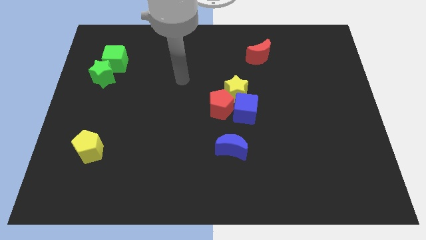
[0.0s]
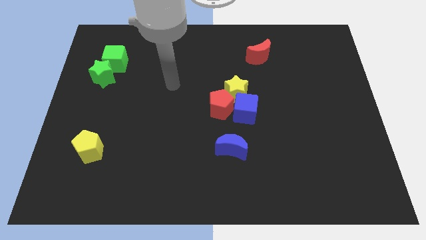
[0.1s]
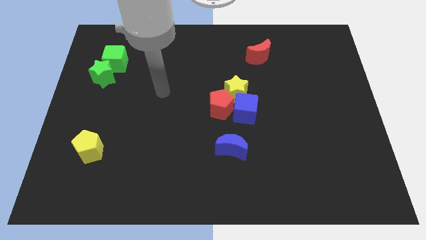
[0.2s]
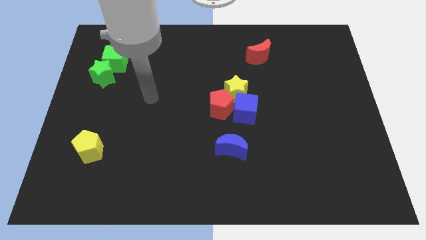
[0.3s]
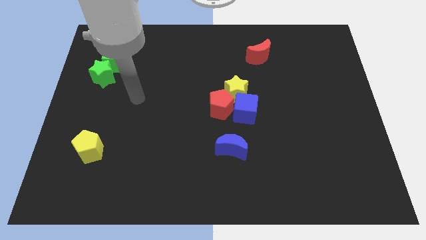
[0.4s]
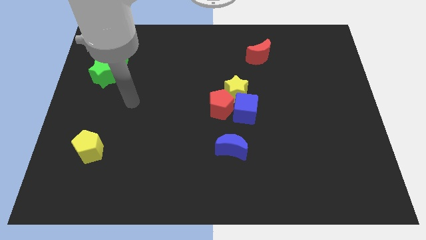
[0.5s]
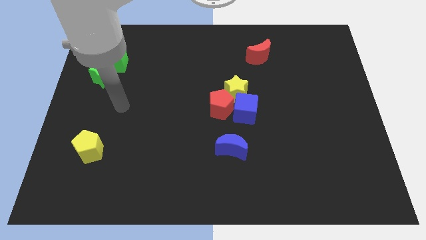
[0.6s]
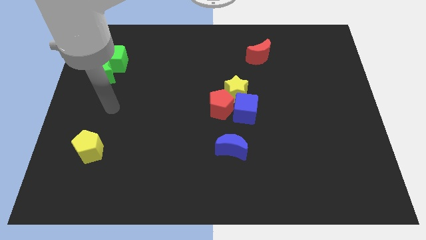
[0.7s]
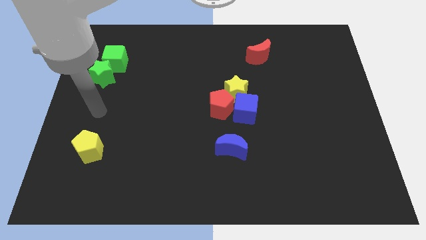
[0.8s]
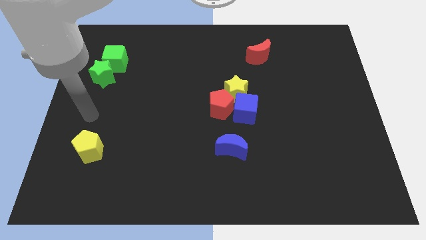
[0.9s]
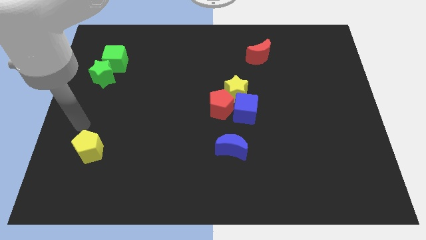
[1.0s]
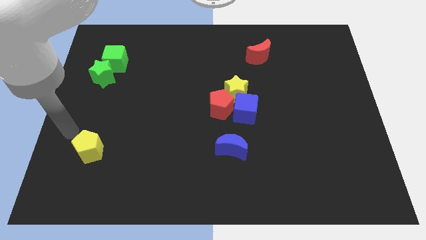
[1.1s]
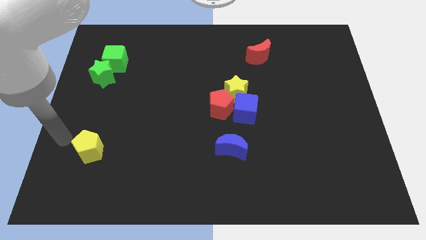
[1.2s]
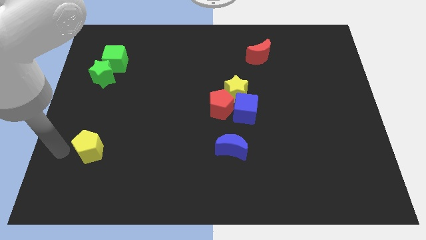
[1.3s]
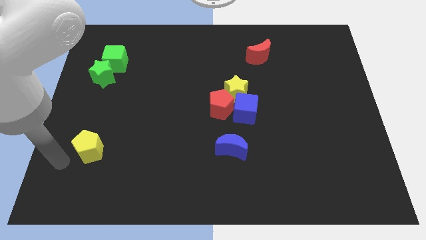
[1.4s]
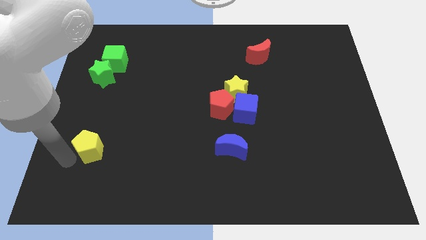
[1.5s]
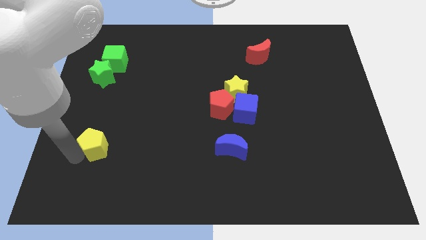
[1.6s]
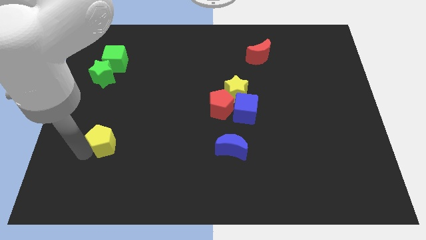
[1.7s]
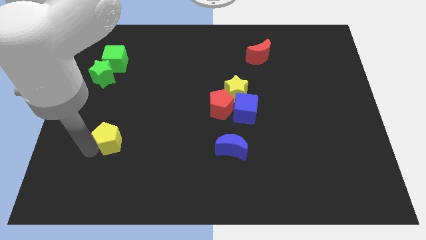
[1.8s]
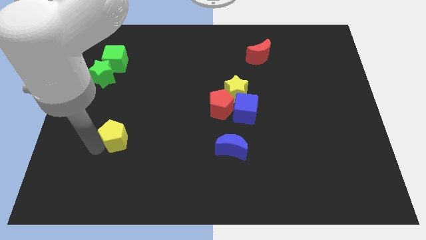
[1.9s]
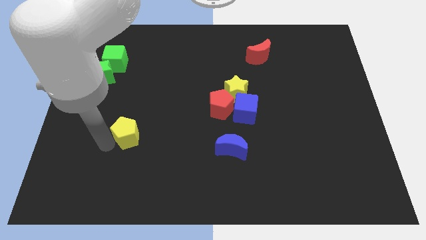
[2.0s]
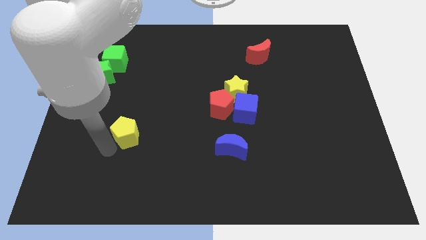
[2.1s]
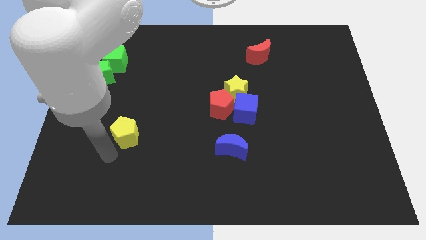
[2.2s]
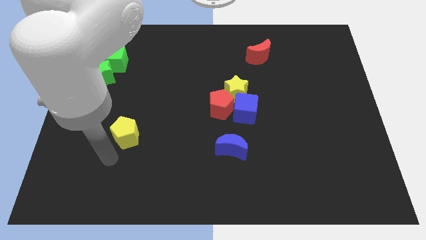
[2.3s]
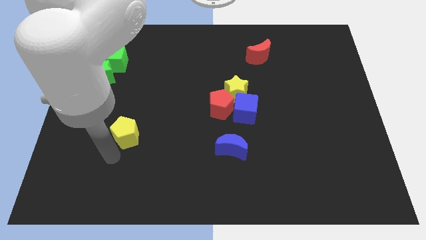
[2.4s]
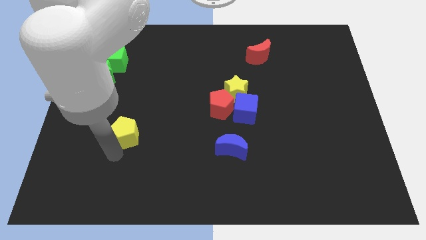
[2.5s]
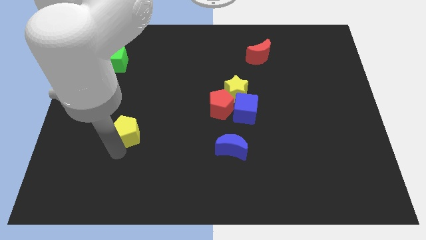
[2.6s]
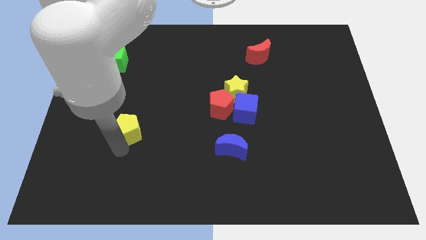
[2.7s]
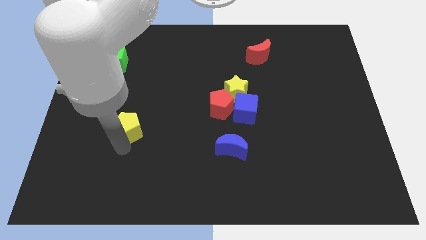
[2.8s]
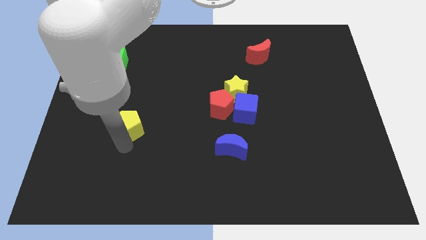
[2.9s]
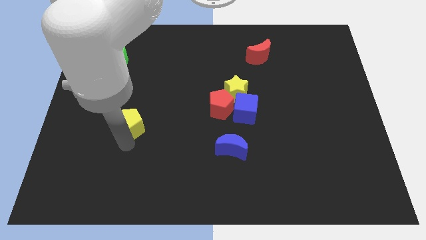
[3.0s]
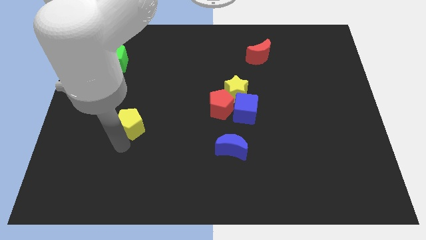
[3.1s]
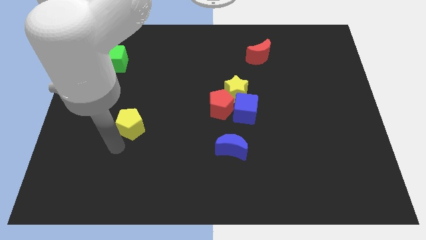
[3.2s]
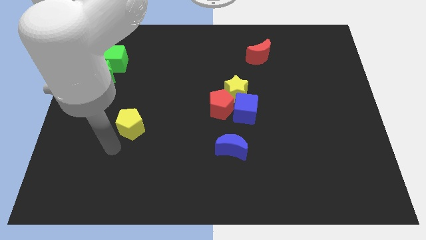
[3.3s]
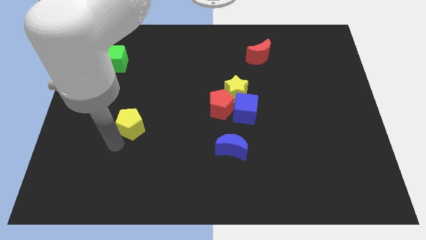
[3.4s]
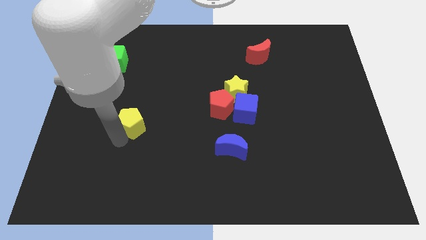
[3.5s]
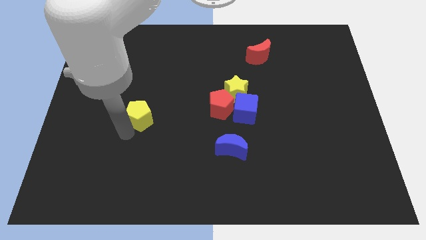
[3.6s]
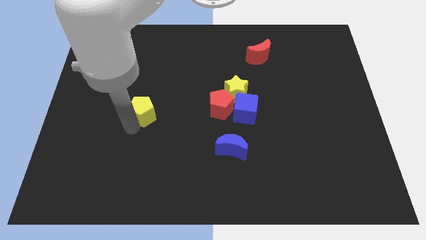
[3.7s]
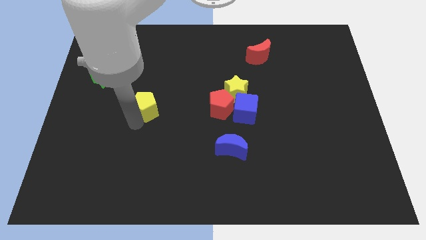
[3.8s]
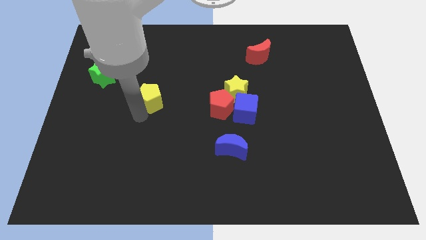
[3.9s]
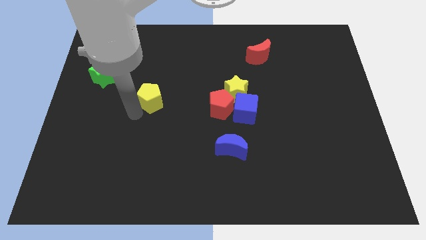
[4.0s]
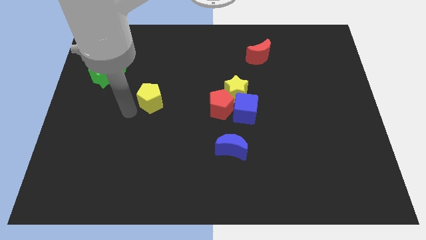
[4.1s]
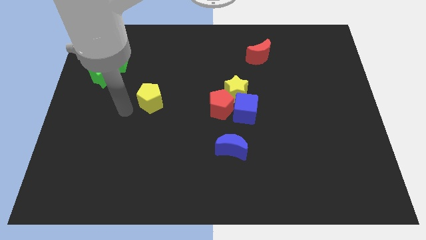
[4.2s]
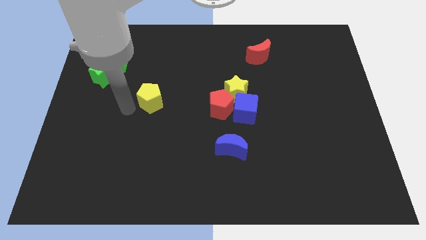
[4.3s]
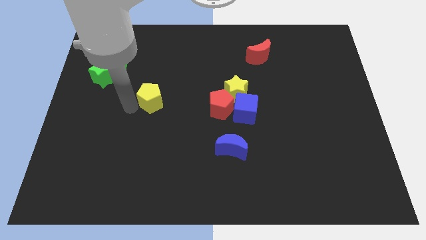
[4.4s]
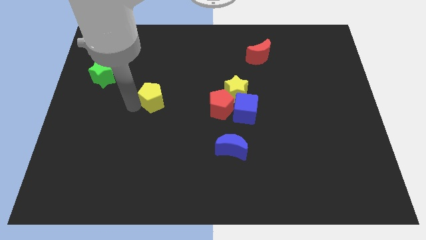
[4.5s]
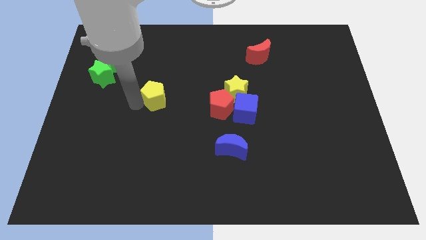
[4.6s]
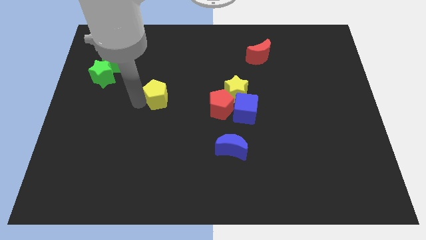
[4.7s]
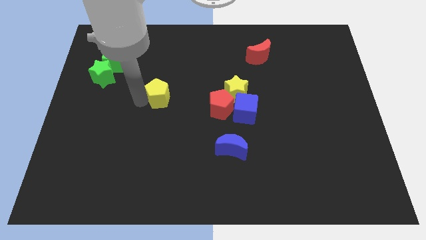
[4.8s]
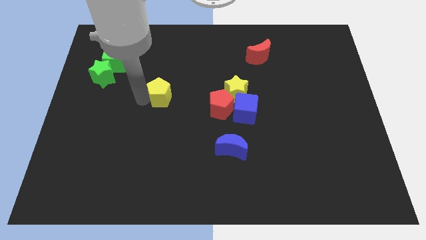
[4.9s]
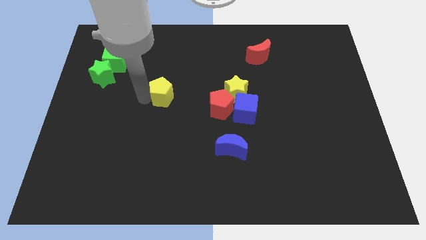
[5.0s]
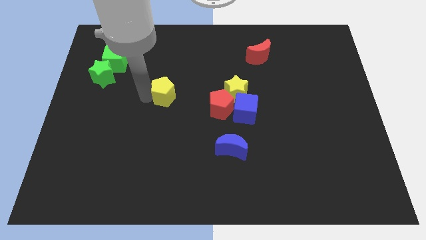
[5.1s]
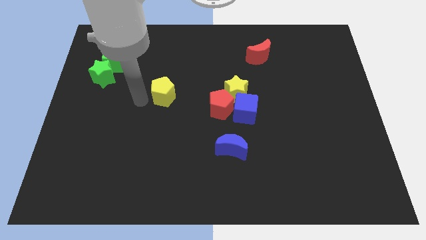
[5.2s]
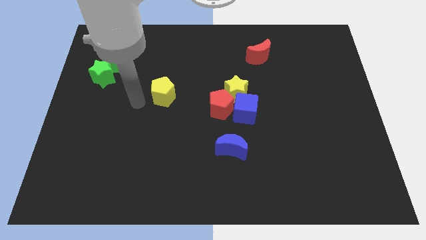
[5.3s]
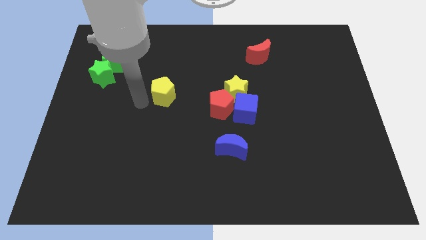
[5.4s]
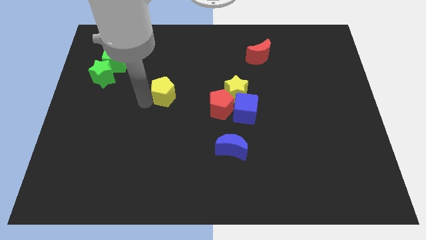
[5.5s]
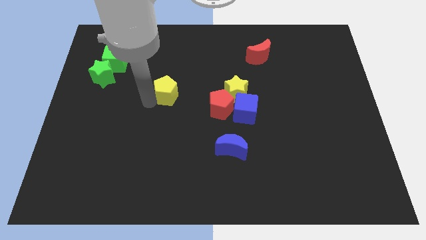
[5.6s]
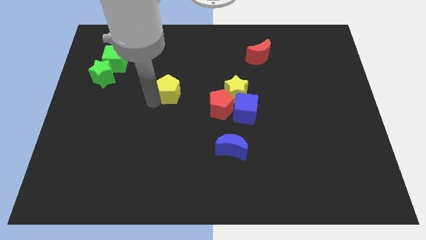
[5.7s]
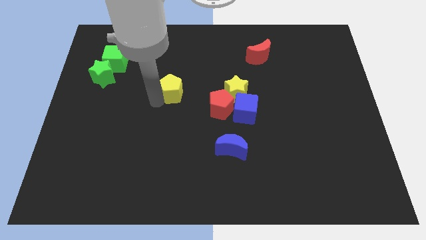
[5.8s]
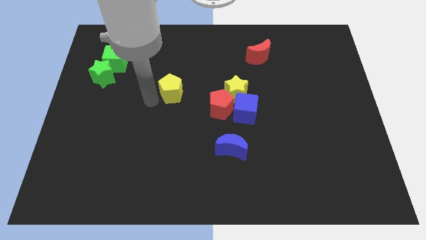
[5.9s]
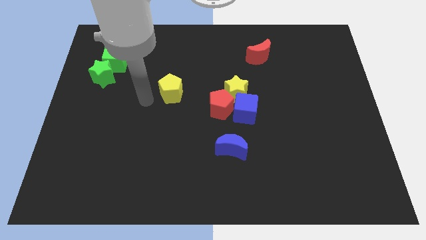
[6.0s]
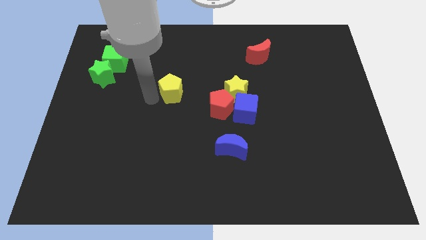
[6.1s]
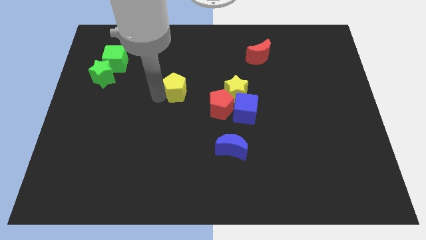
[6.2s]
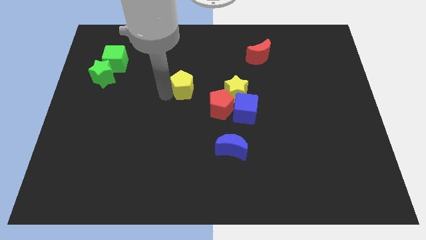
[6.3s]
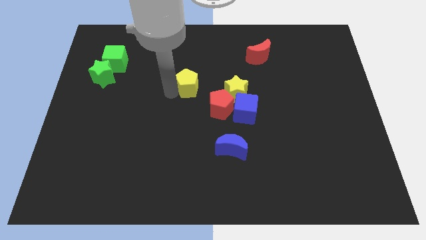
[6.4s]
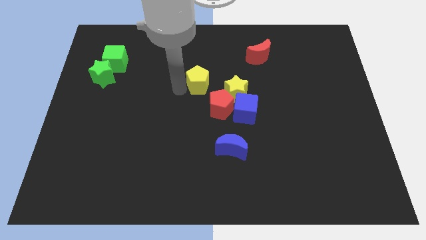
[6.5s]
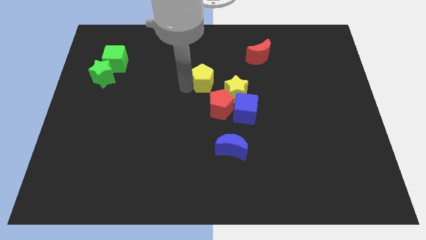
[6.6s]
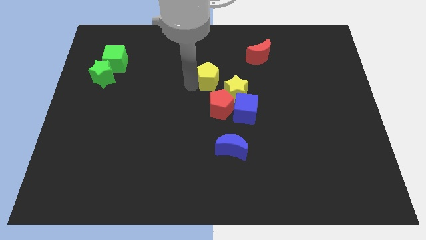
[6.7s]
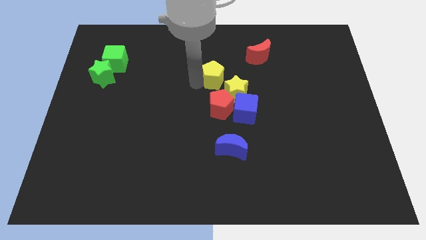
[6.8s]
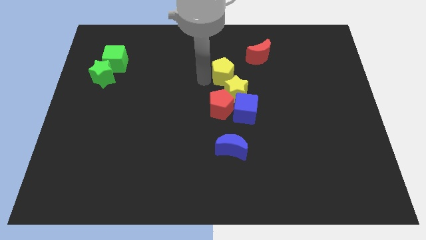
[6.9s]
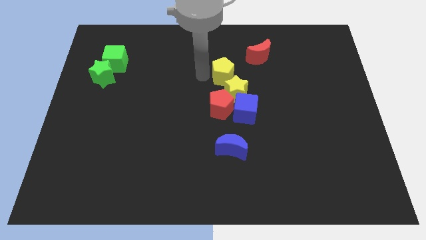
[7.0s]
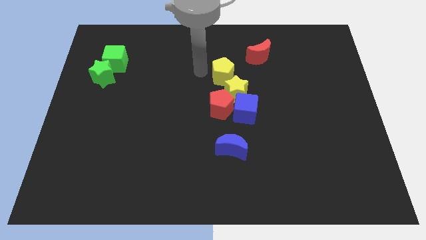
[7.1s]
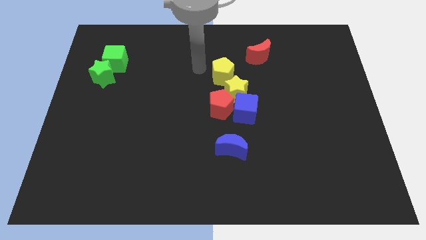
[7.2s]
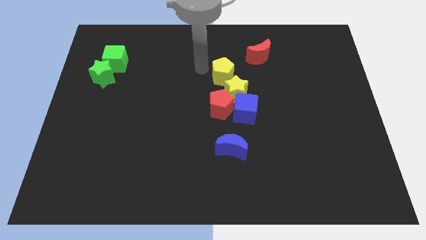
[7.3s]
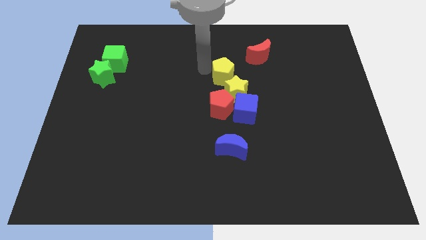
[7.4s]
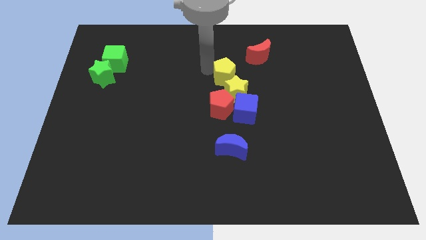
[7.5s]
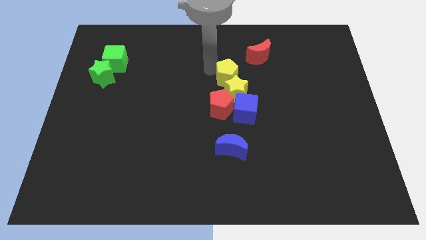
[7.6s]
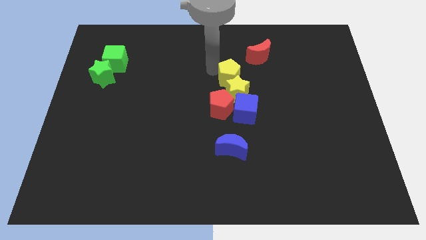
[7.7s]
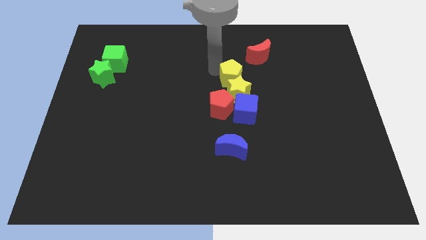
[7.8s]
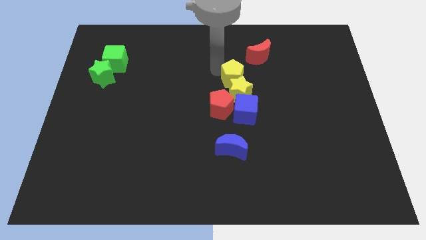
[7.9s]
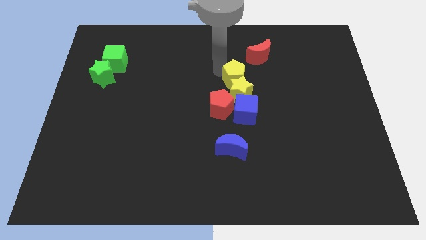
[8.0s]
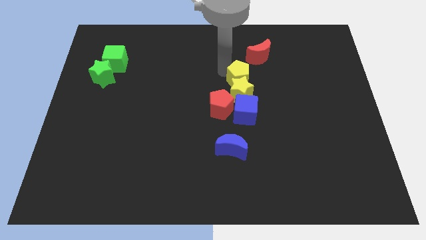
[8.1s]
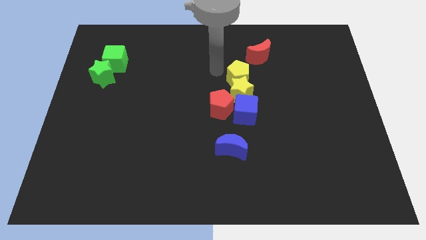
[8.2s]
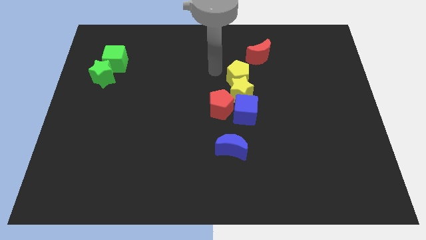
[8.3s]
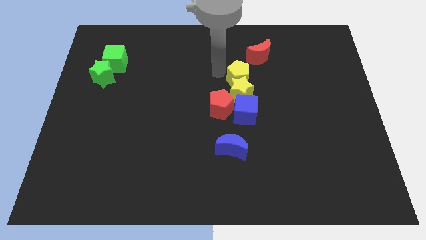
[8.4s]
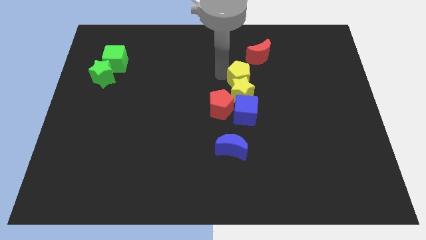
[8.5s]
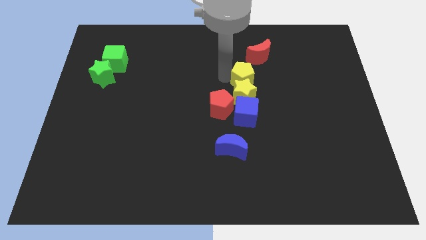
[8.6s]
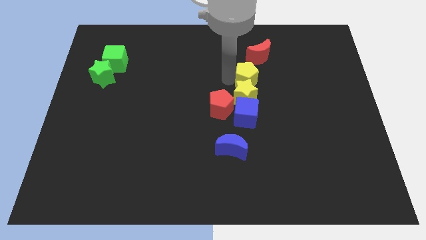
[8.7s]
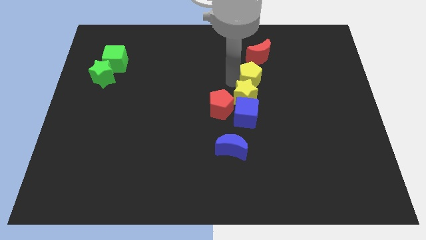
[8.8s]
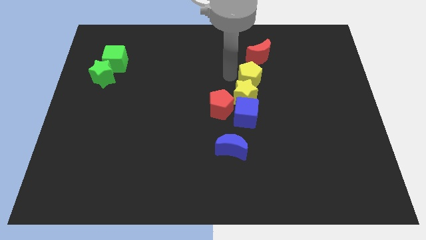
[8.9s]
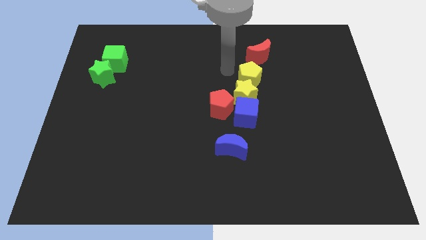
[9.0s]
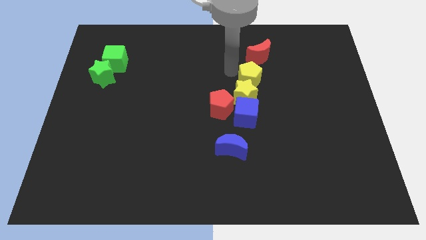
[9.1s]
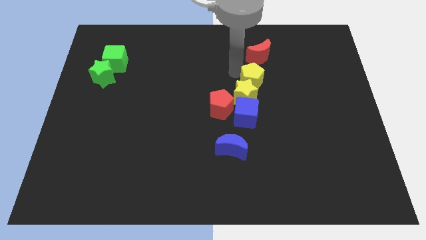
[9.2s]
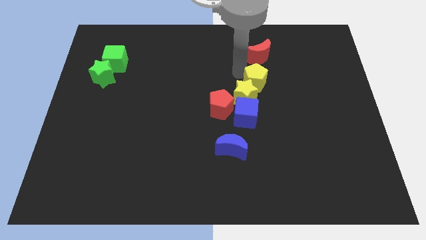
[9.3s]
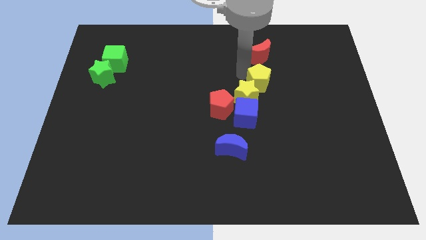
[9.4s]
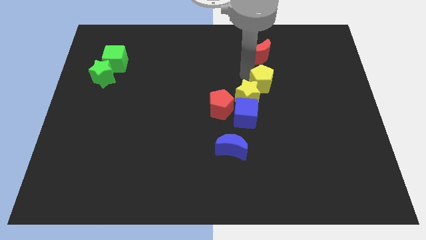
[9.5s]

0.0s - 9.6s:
push the yellow pentagon right of the yellow star
